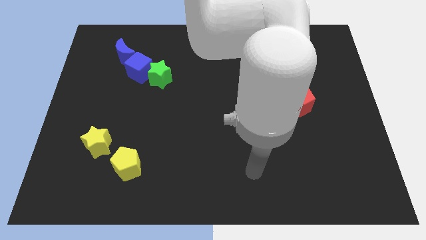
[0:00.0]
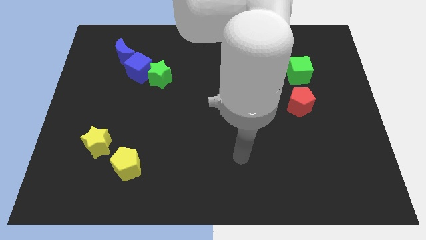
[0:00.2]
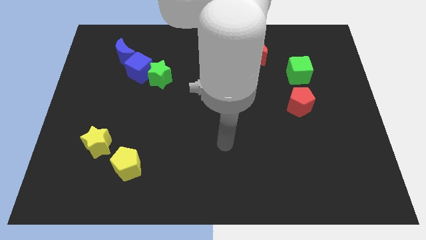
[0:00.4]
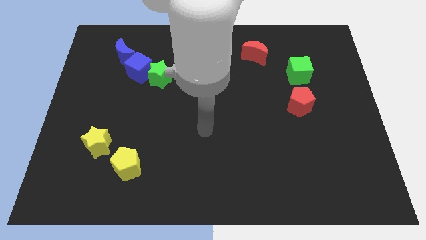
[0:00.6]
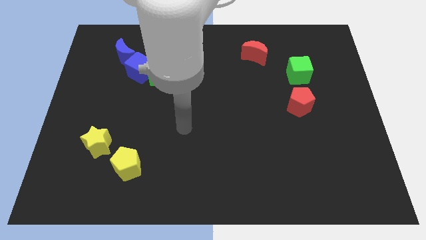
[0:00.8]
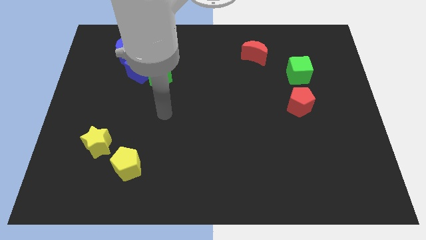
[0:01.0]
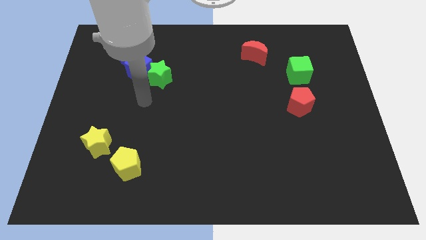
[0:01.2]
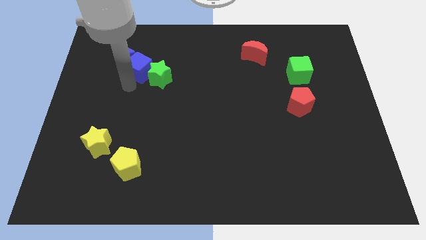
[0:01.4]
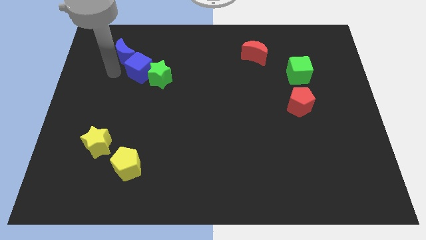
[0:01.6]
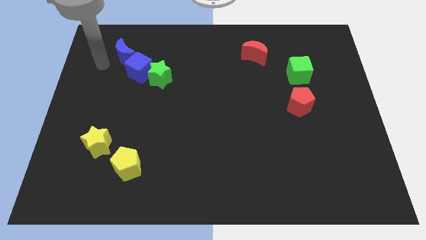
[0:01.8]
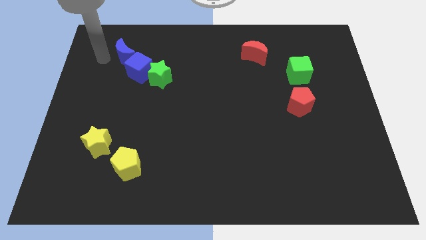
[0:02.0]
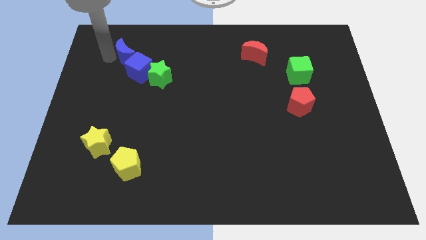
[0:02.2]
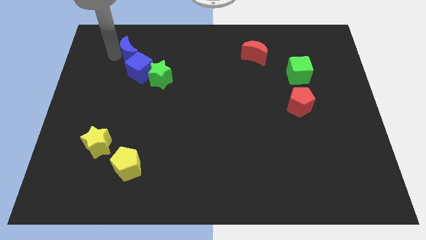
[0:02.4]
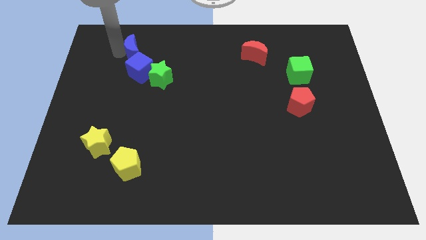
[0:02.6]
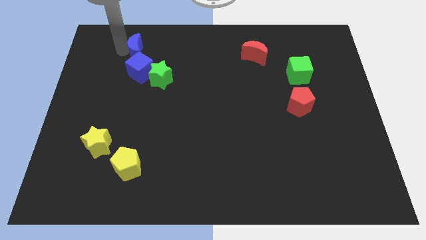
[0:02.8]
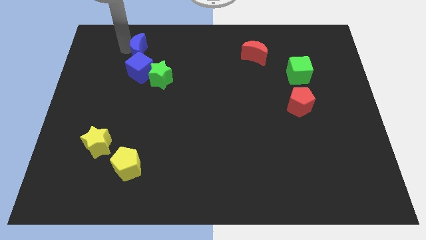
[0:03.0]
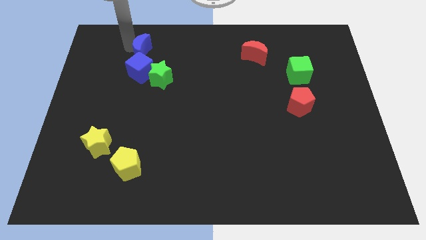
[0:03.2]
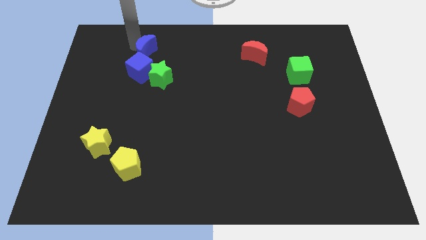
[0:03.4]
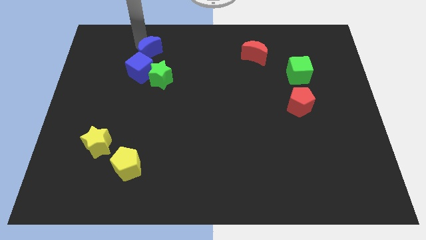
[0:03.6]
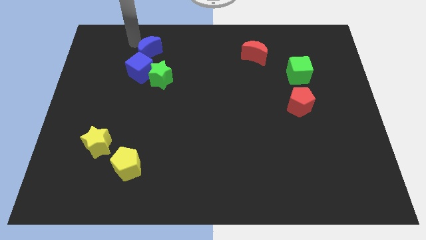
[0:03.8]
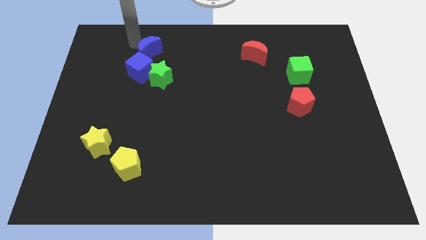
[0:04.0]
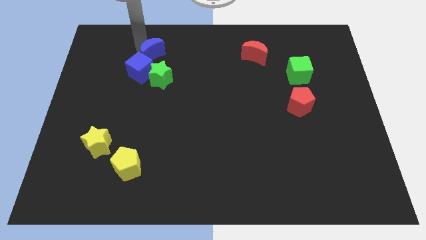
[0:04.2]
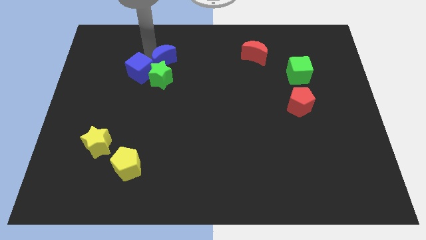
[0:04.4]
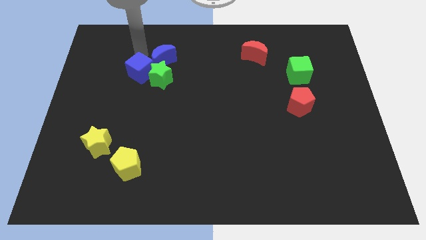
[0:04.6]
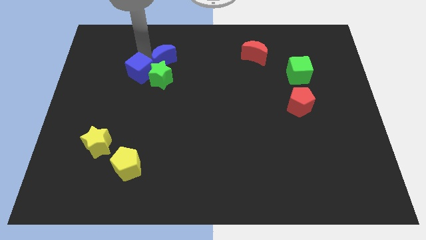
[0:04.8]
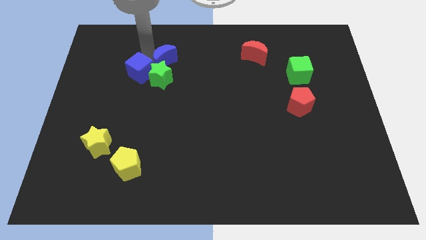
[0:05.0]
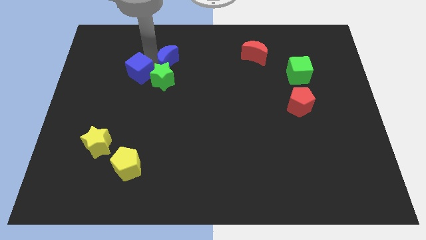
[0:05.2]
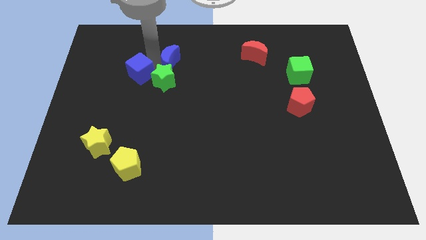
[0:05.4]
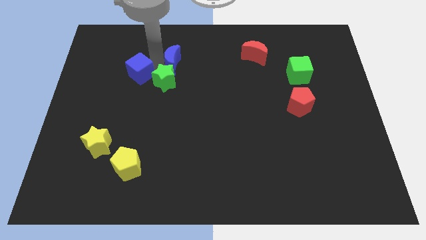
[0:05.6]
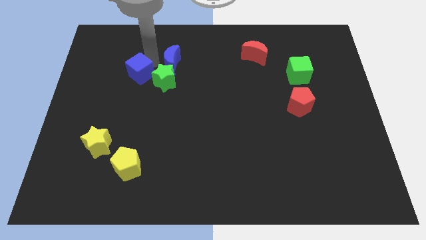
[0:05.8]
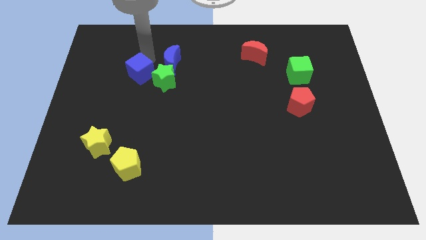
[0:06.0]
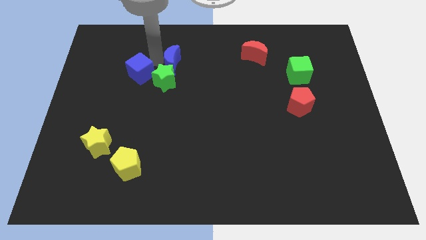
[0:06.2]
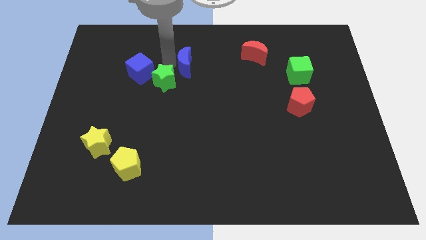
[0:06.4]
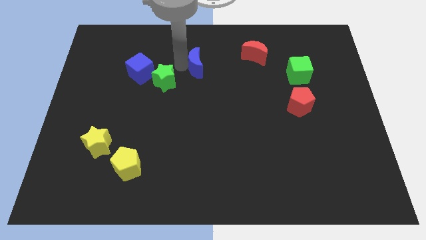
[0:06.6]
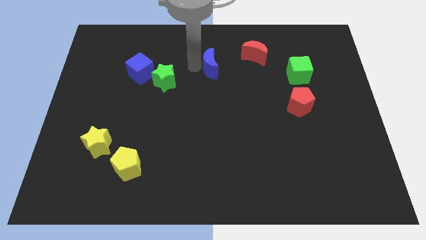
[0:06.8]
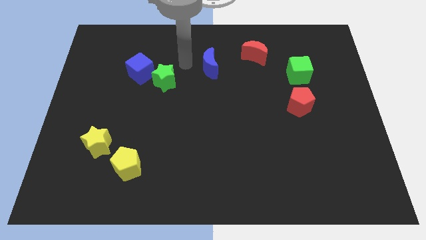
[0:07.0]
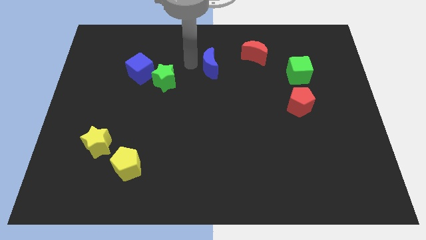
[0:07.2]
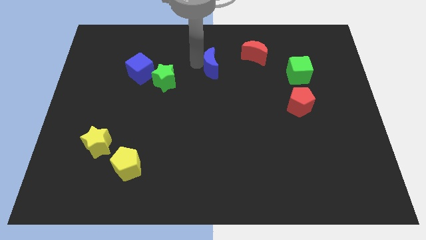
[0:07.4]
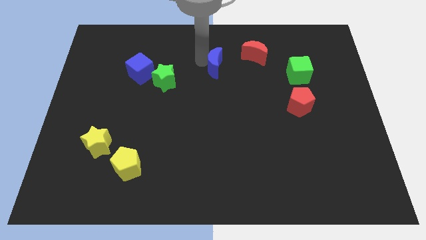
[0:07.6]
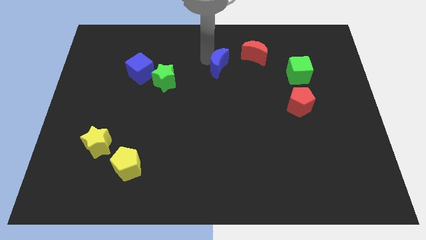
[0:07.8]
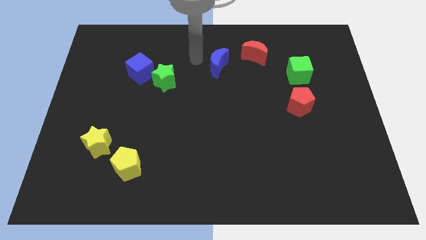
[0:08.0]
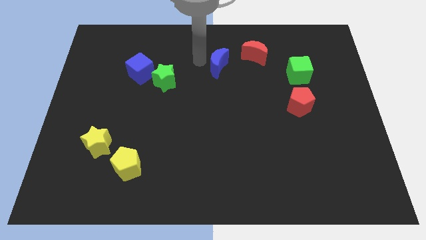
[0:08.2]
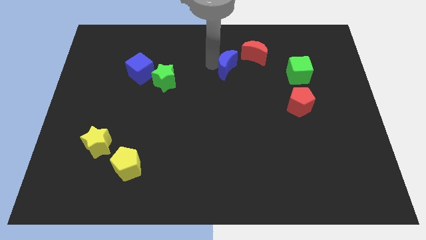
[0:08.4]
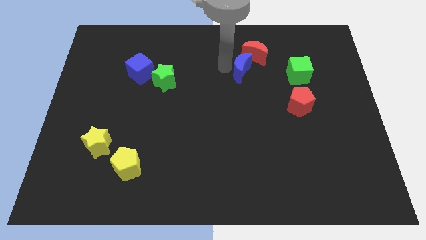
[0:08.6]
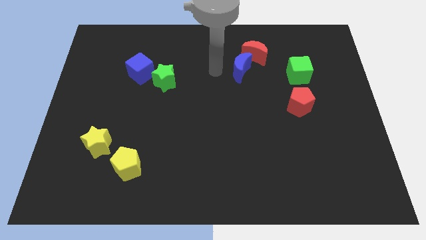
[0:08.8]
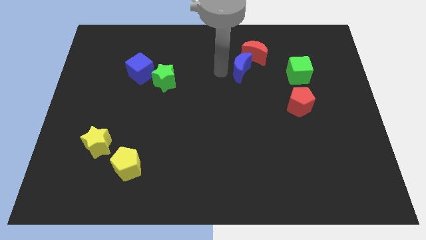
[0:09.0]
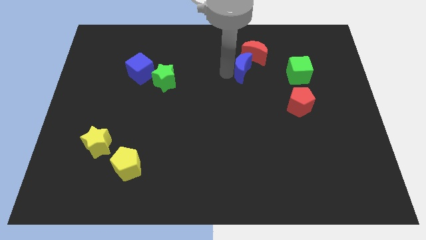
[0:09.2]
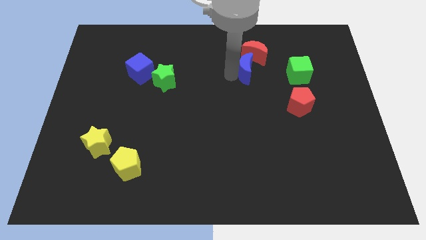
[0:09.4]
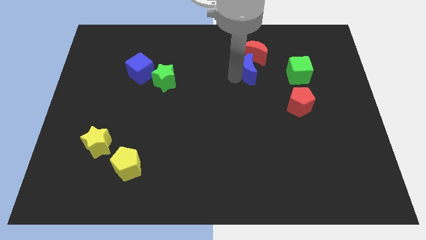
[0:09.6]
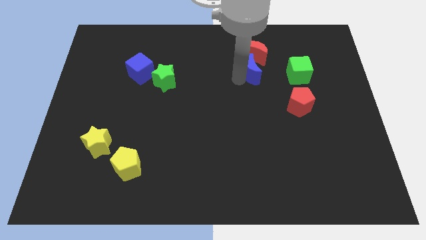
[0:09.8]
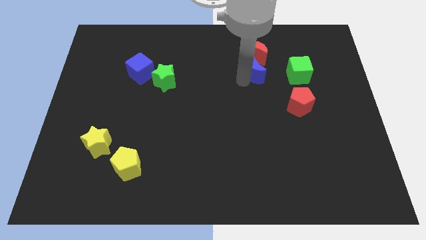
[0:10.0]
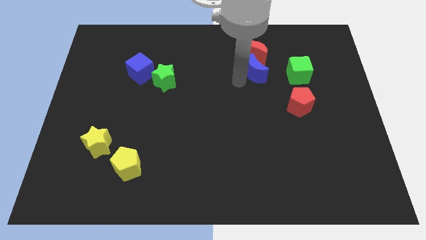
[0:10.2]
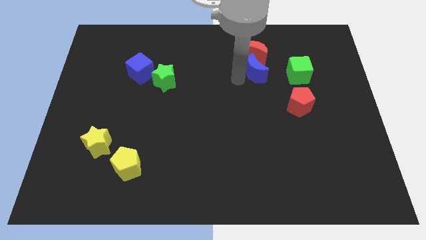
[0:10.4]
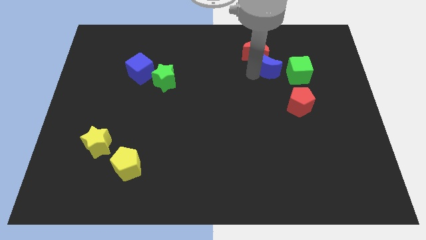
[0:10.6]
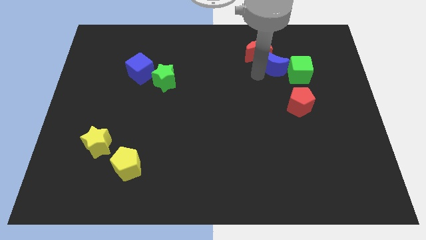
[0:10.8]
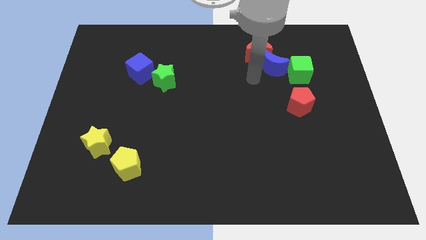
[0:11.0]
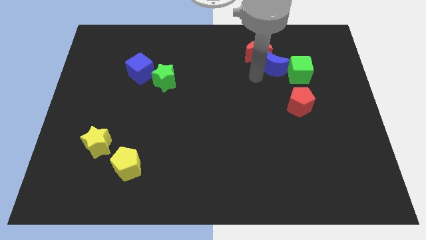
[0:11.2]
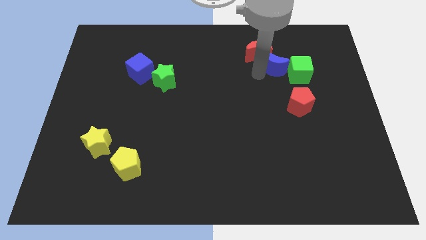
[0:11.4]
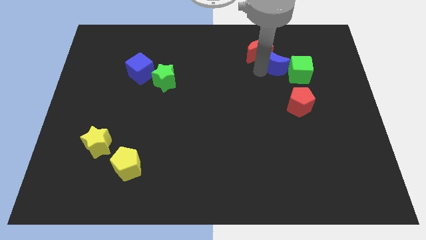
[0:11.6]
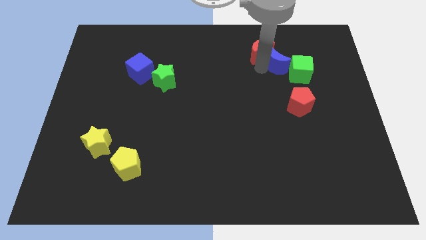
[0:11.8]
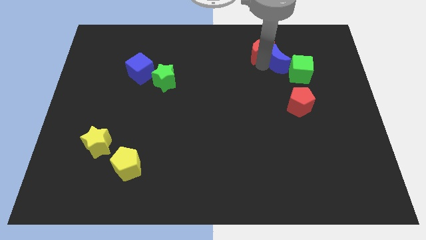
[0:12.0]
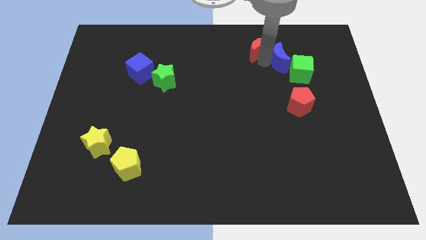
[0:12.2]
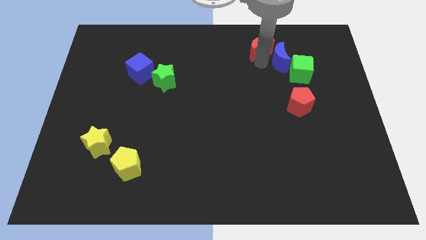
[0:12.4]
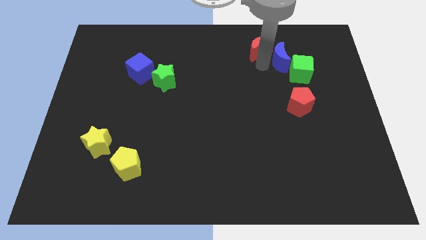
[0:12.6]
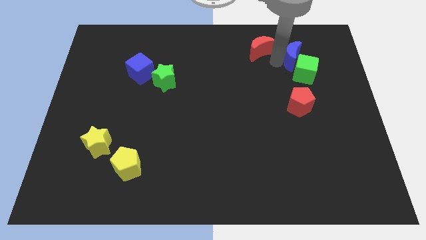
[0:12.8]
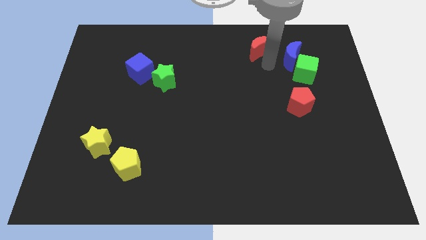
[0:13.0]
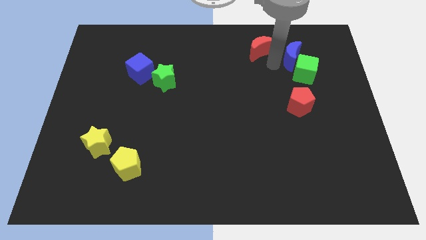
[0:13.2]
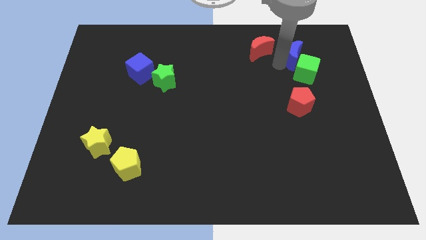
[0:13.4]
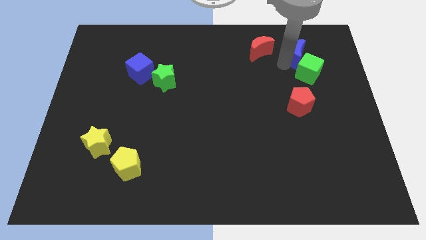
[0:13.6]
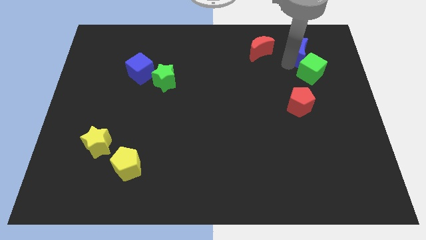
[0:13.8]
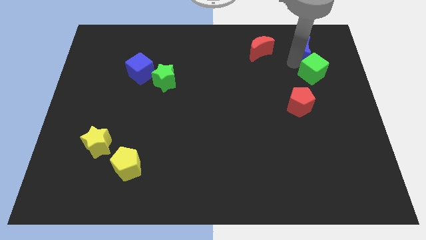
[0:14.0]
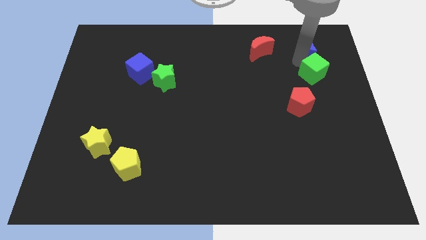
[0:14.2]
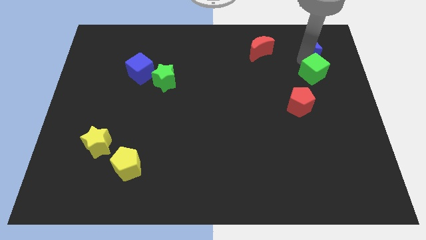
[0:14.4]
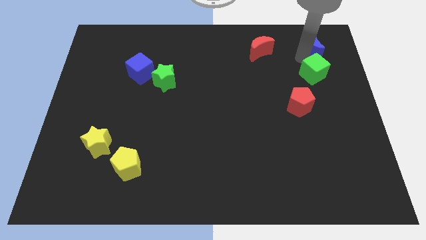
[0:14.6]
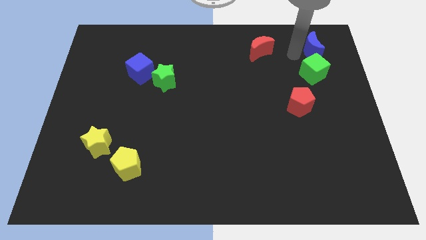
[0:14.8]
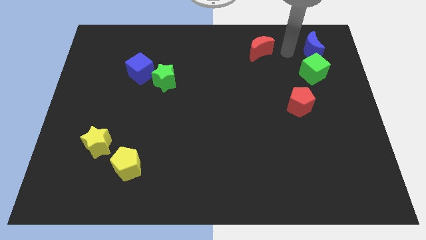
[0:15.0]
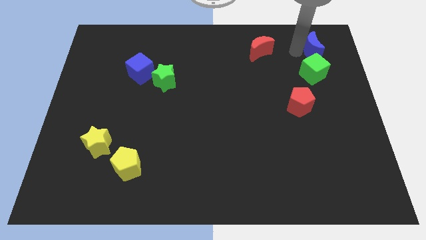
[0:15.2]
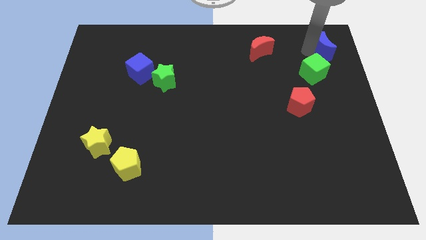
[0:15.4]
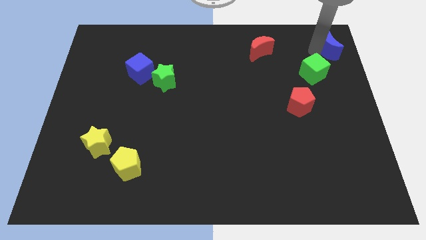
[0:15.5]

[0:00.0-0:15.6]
put the blue moon to the top right
